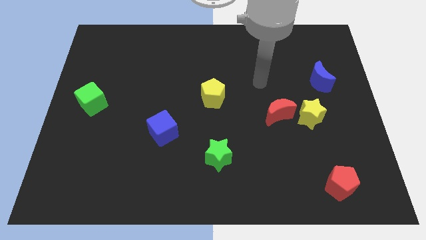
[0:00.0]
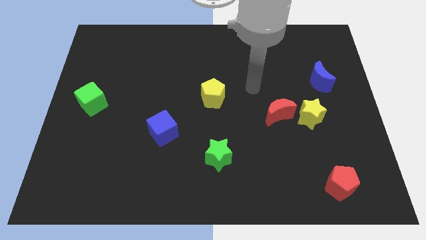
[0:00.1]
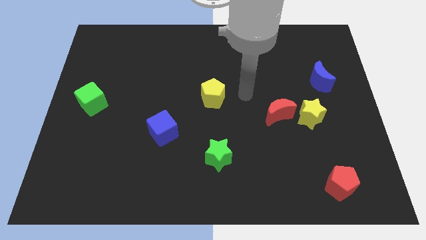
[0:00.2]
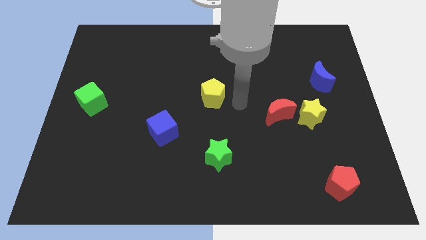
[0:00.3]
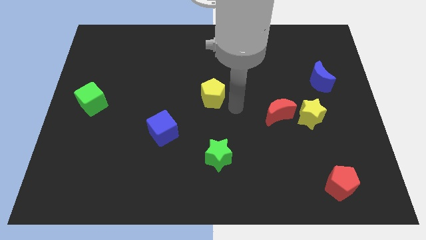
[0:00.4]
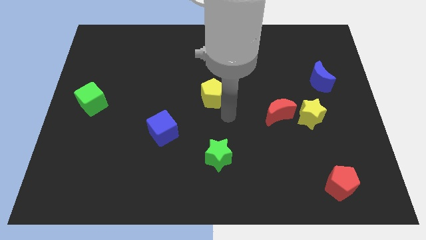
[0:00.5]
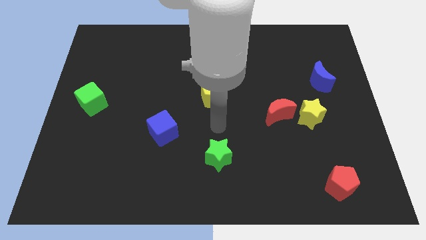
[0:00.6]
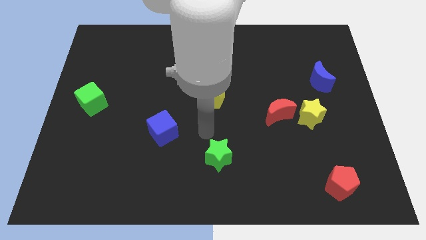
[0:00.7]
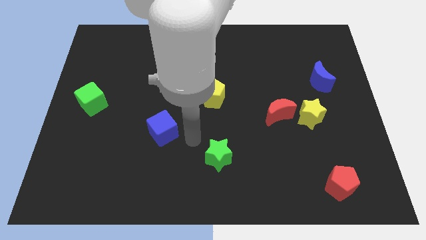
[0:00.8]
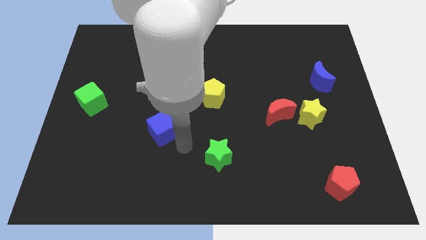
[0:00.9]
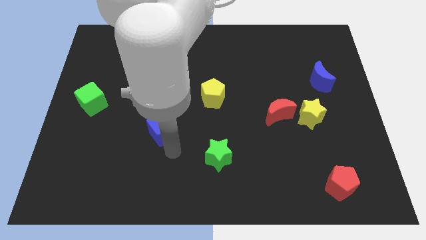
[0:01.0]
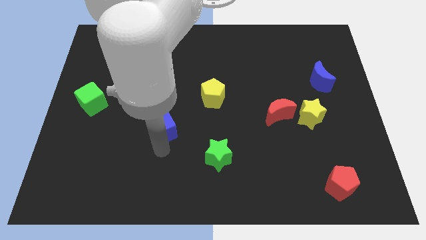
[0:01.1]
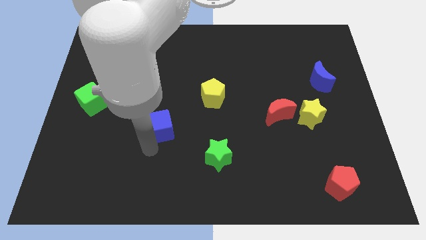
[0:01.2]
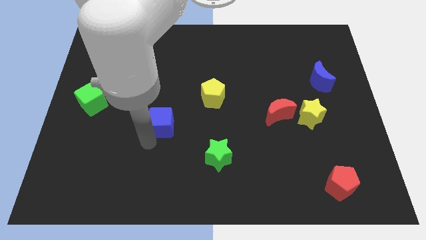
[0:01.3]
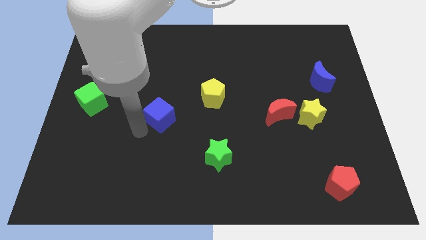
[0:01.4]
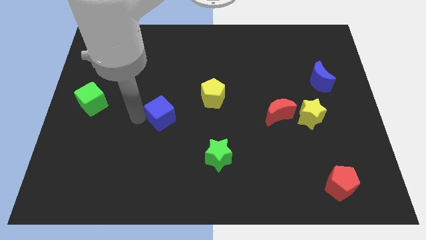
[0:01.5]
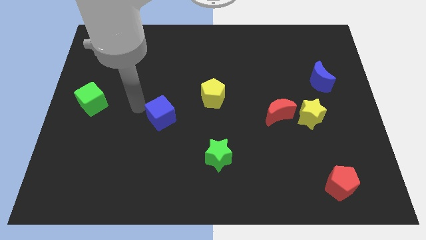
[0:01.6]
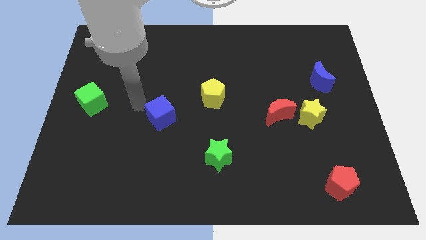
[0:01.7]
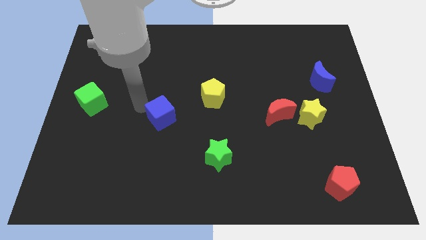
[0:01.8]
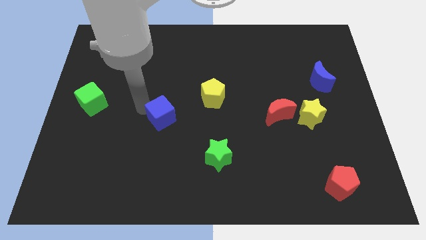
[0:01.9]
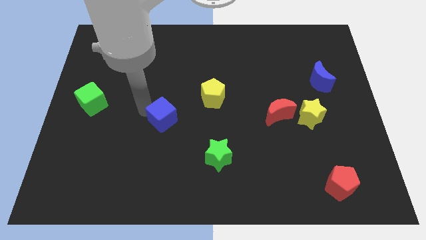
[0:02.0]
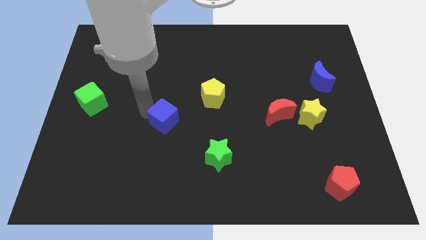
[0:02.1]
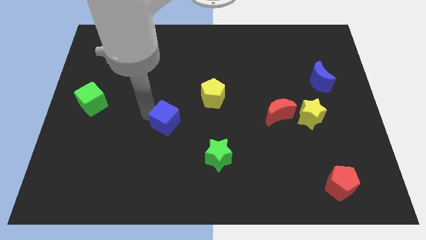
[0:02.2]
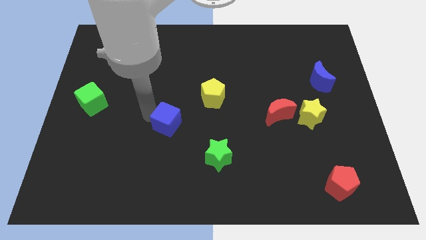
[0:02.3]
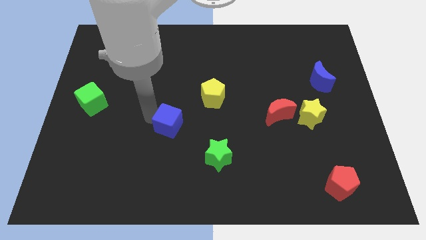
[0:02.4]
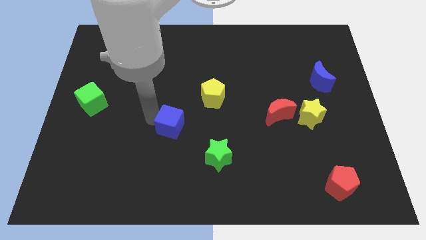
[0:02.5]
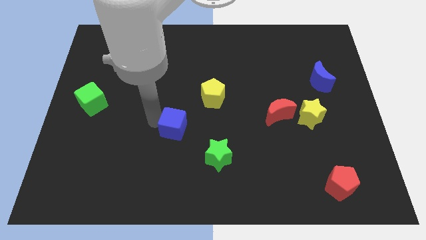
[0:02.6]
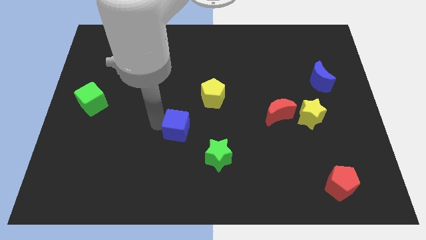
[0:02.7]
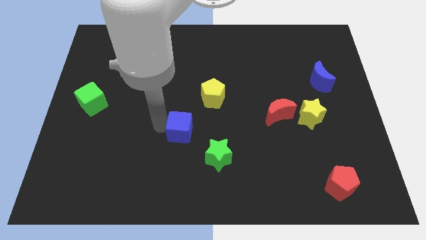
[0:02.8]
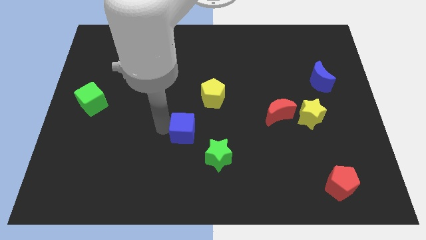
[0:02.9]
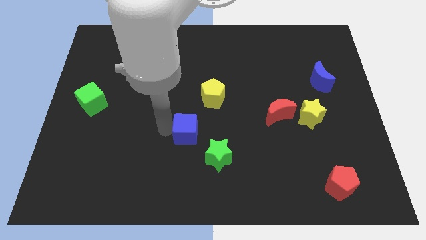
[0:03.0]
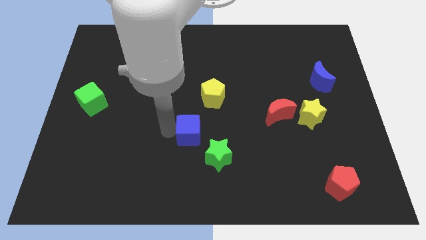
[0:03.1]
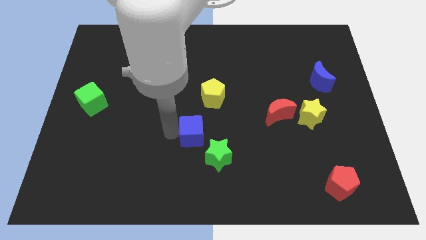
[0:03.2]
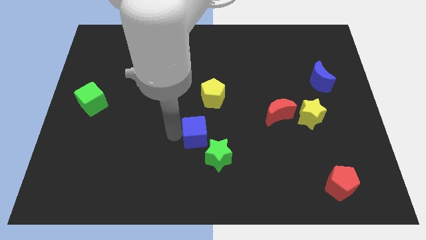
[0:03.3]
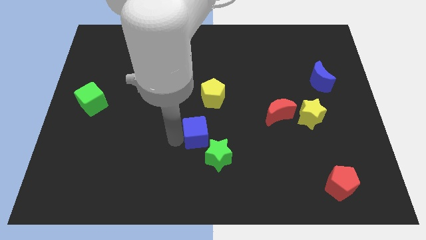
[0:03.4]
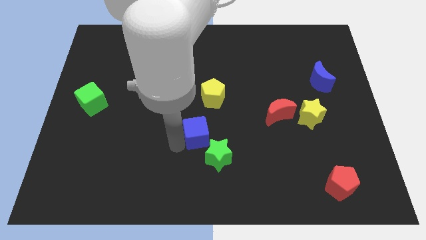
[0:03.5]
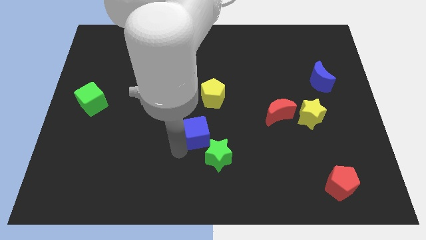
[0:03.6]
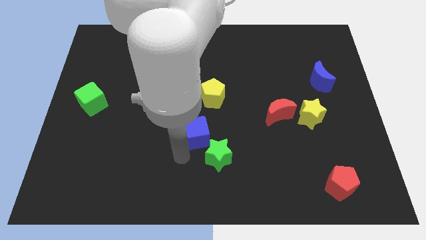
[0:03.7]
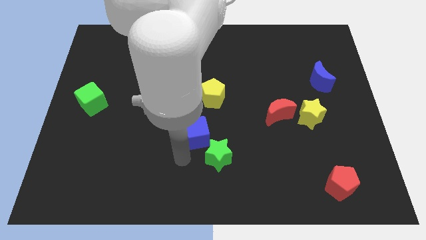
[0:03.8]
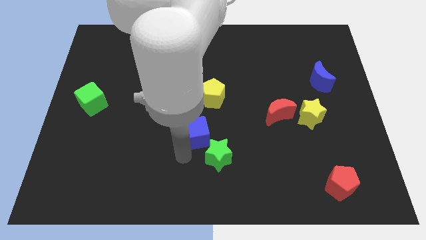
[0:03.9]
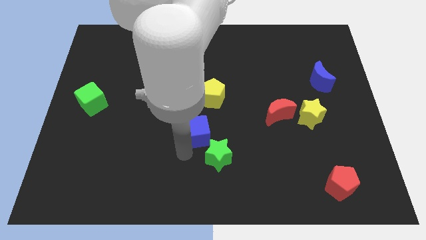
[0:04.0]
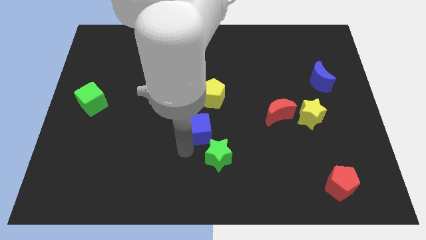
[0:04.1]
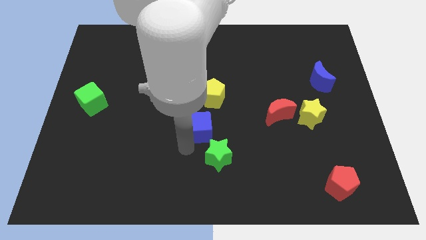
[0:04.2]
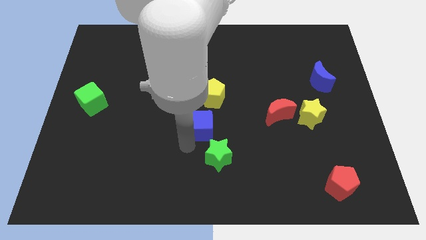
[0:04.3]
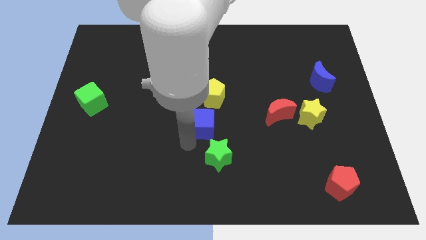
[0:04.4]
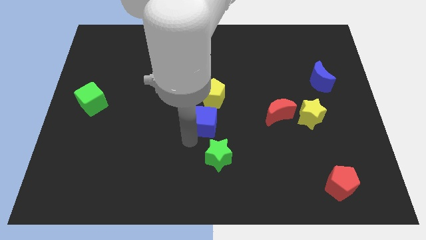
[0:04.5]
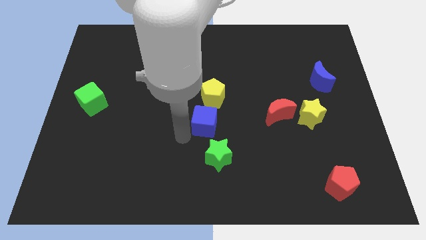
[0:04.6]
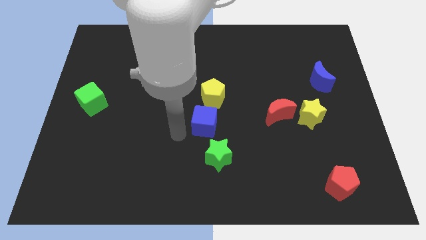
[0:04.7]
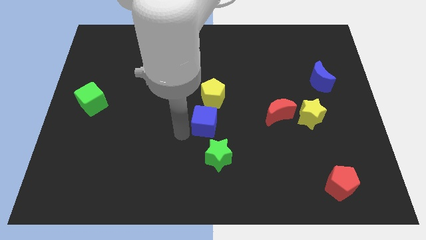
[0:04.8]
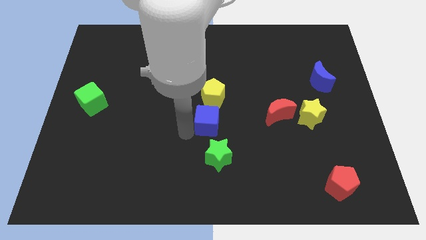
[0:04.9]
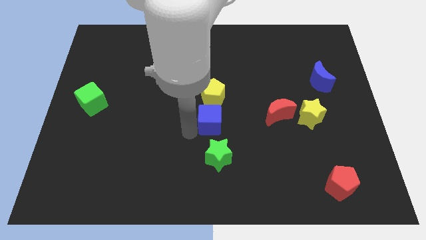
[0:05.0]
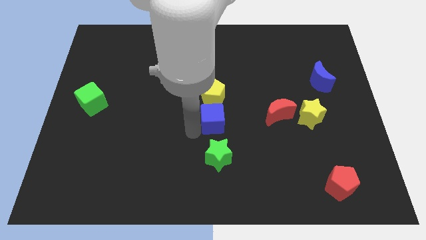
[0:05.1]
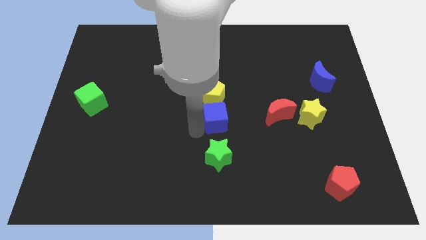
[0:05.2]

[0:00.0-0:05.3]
slide the blue cube to the bottom right side of the yellow pentagon

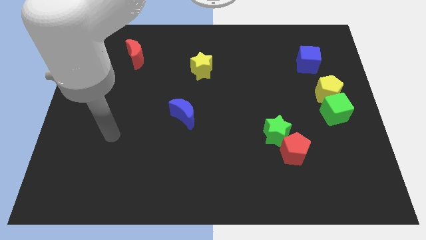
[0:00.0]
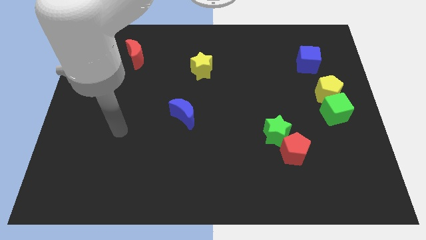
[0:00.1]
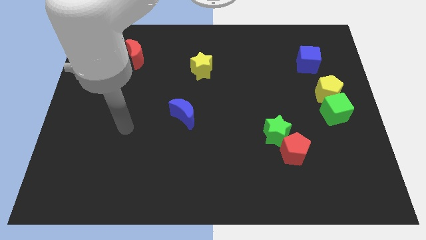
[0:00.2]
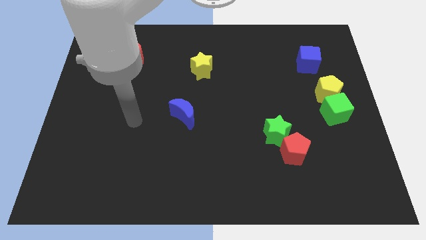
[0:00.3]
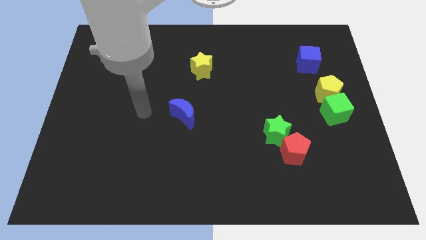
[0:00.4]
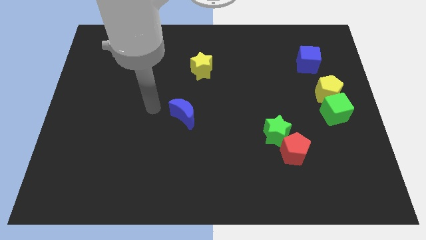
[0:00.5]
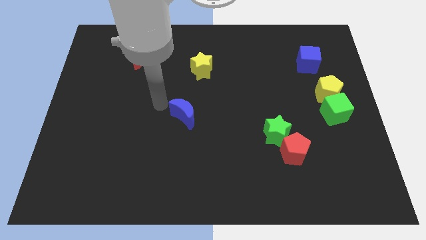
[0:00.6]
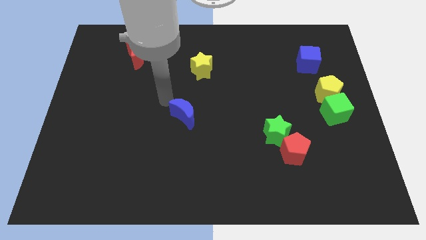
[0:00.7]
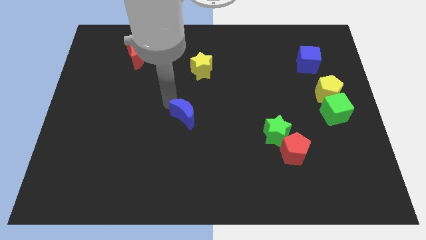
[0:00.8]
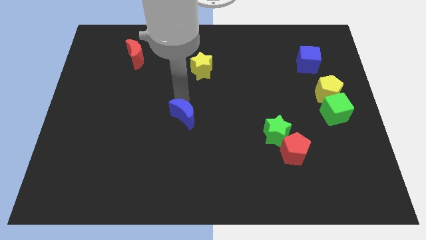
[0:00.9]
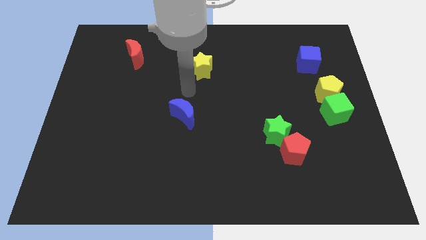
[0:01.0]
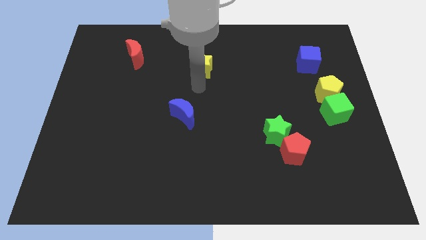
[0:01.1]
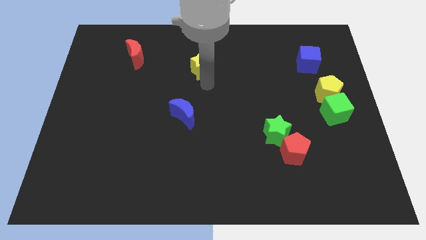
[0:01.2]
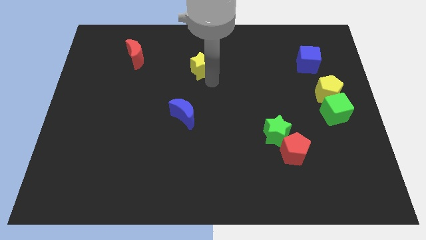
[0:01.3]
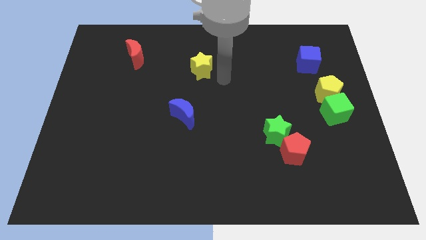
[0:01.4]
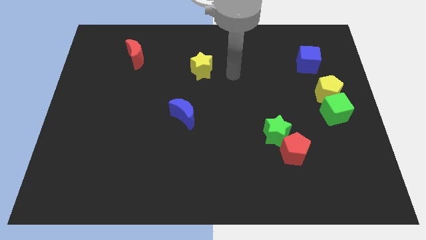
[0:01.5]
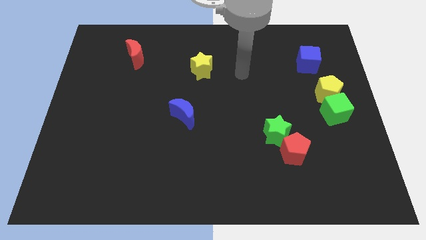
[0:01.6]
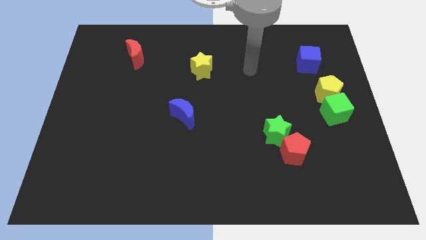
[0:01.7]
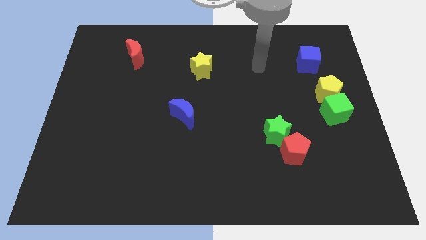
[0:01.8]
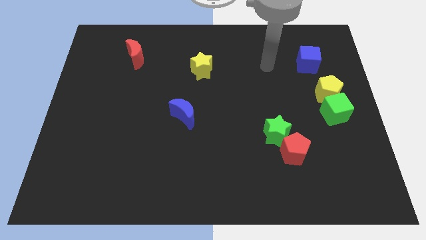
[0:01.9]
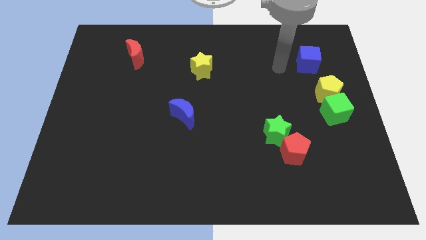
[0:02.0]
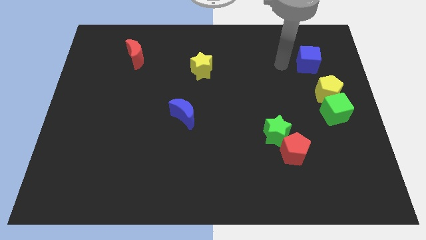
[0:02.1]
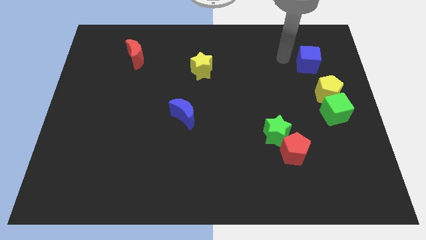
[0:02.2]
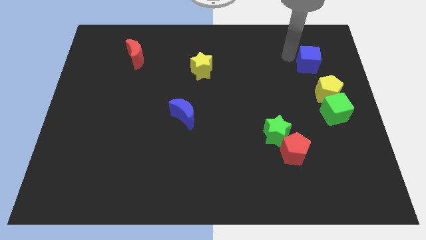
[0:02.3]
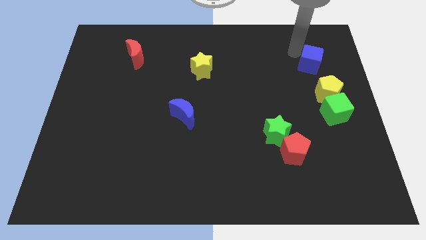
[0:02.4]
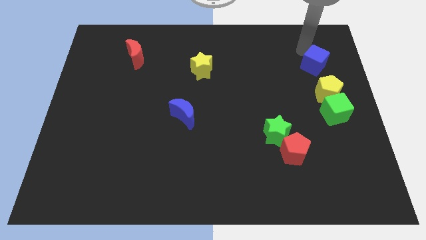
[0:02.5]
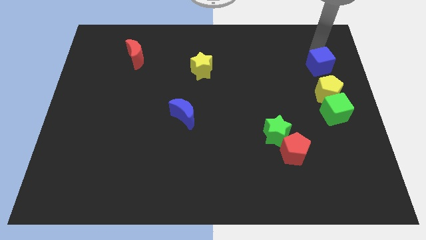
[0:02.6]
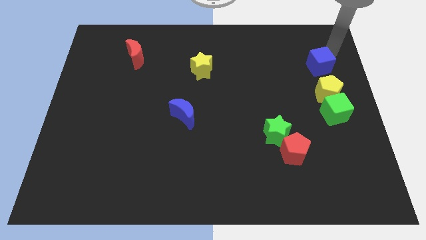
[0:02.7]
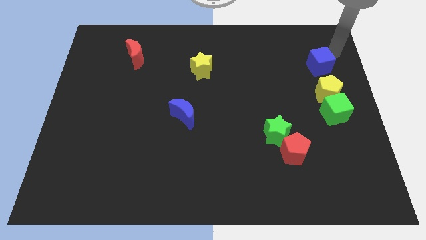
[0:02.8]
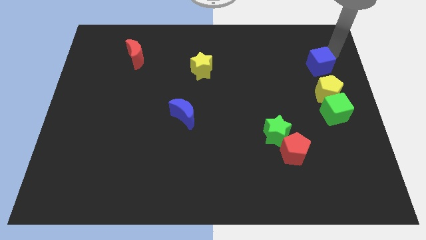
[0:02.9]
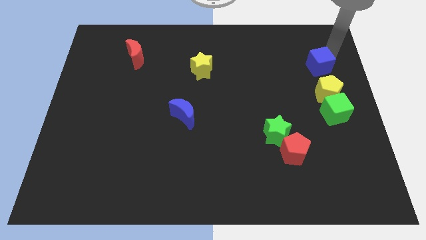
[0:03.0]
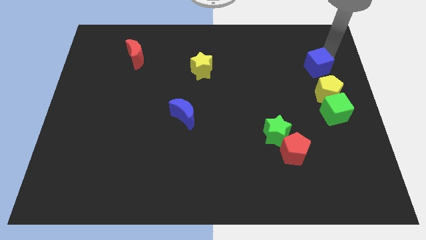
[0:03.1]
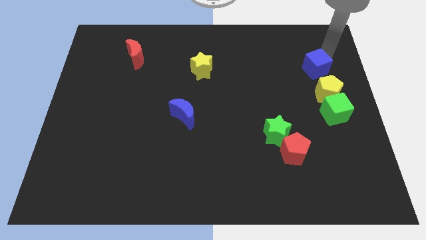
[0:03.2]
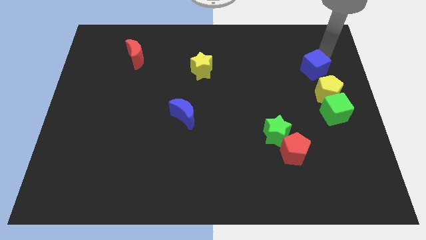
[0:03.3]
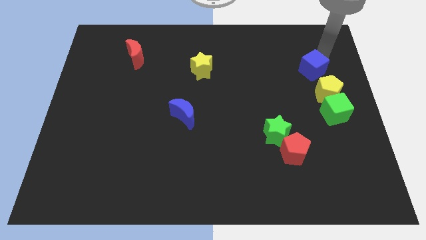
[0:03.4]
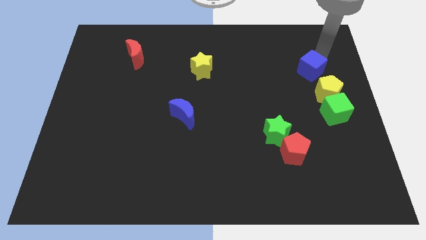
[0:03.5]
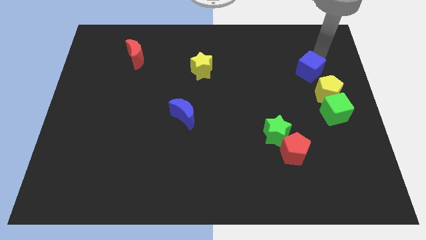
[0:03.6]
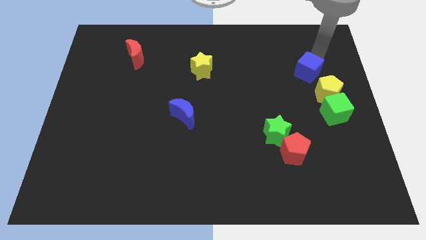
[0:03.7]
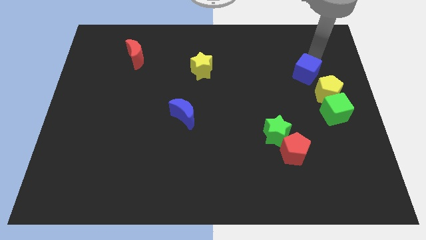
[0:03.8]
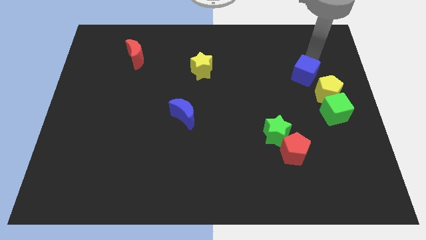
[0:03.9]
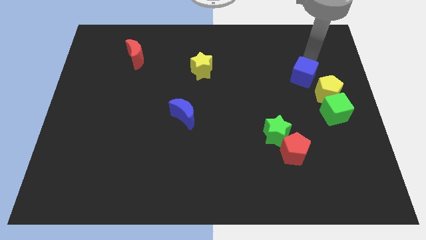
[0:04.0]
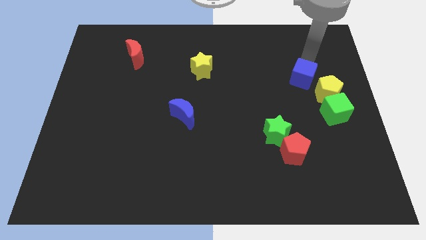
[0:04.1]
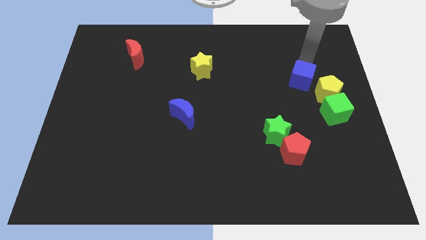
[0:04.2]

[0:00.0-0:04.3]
slide the blue cube to the top left side of the green cube
